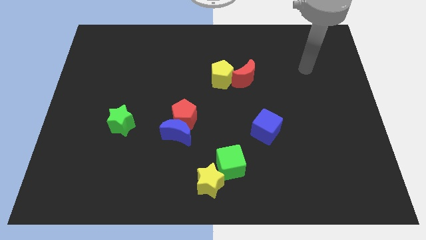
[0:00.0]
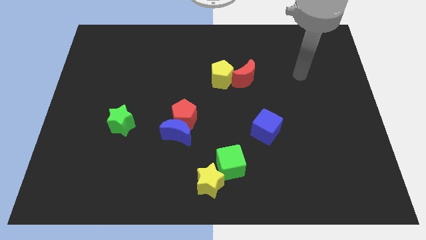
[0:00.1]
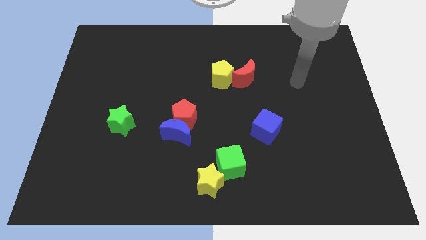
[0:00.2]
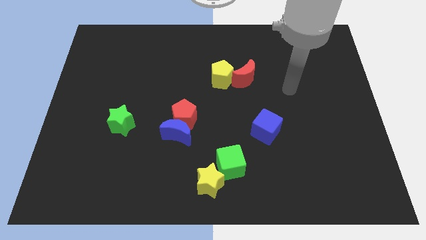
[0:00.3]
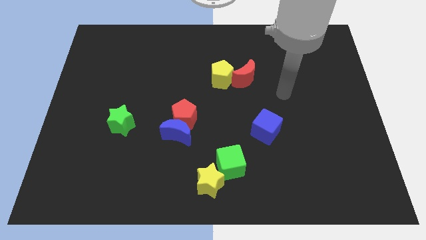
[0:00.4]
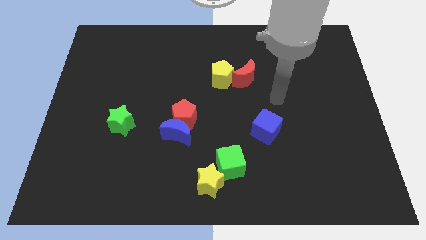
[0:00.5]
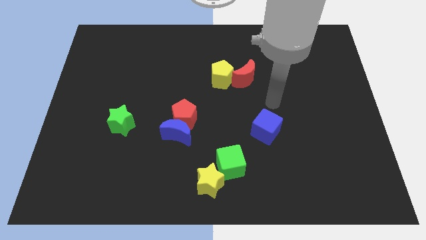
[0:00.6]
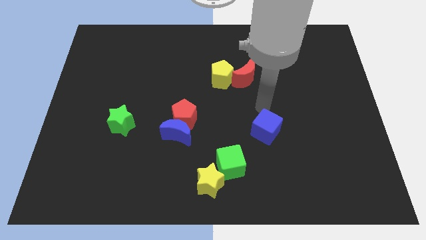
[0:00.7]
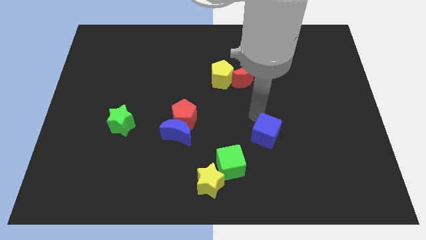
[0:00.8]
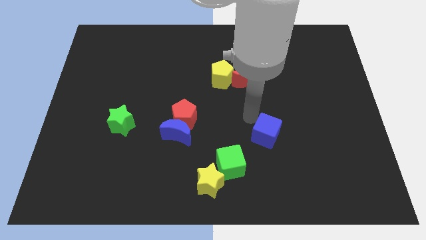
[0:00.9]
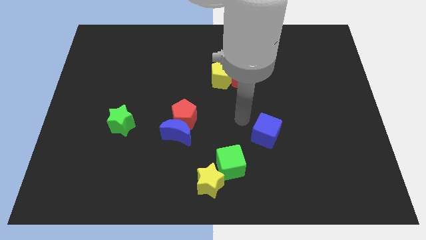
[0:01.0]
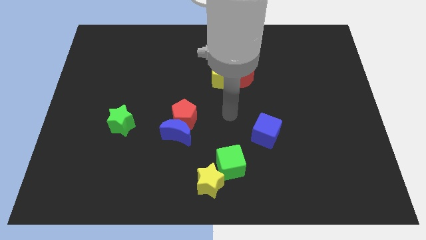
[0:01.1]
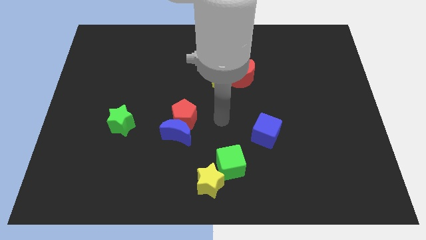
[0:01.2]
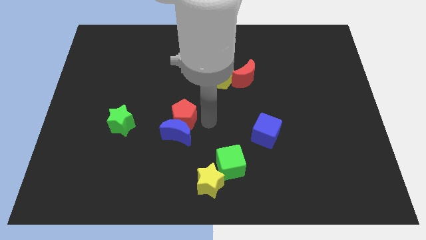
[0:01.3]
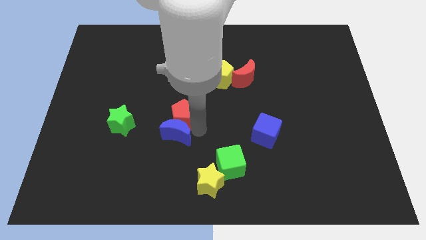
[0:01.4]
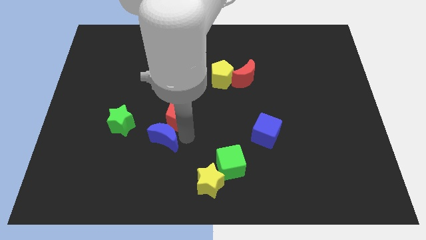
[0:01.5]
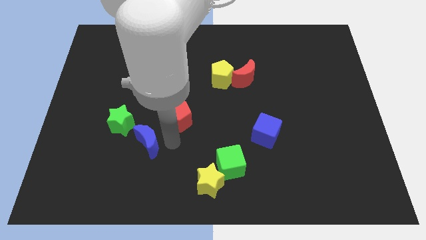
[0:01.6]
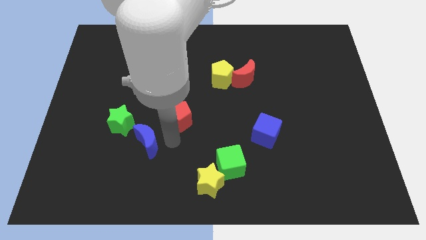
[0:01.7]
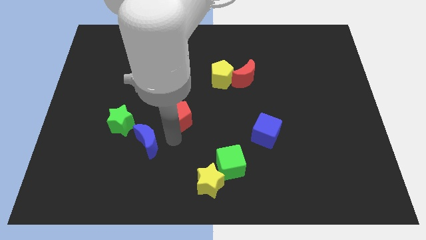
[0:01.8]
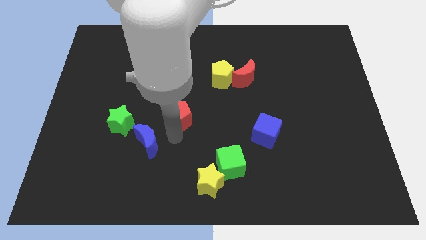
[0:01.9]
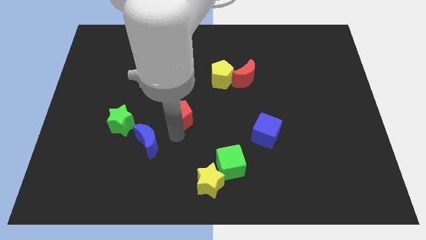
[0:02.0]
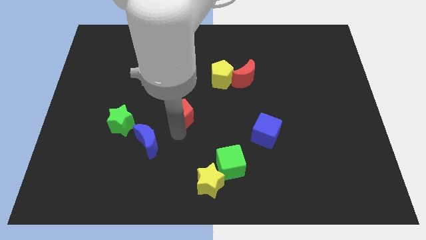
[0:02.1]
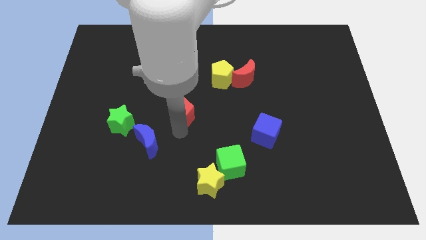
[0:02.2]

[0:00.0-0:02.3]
pull the red pentagon apart from the blue moon

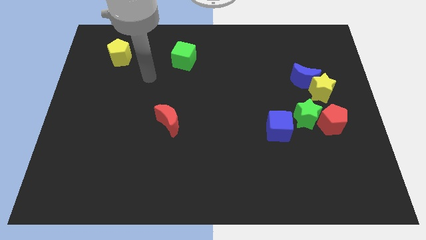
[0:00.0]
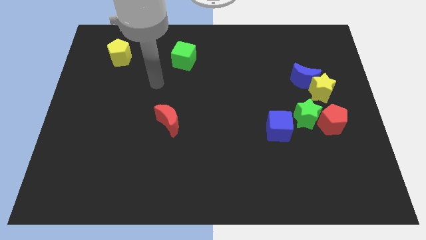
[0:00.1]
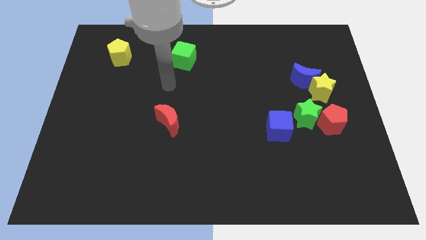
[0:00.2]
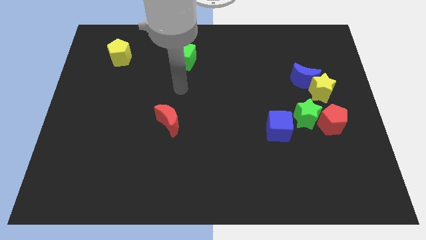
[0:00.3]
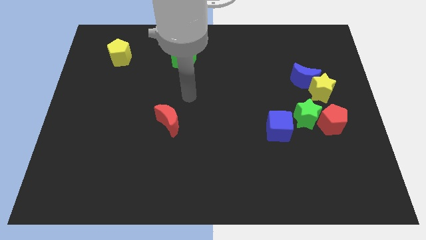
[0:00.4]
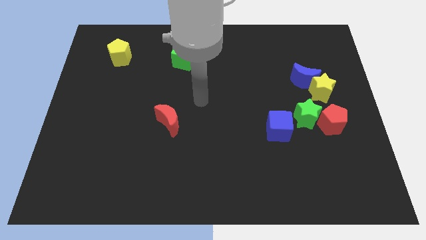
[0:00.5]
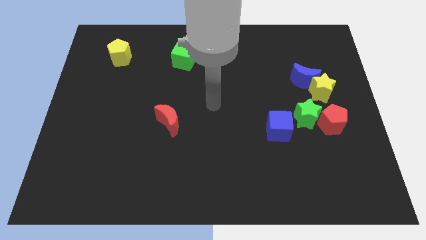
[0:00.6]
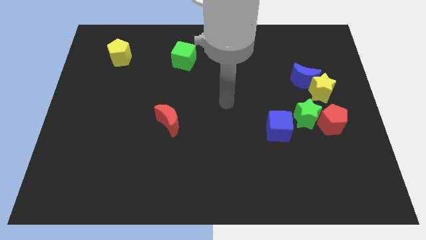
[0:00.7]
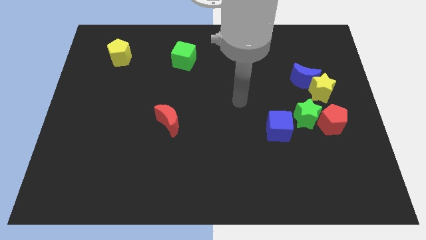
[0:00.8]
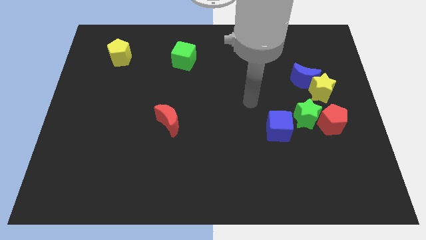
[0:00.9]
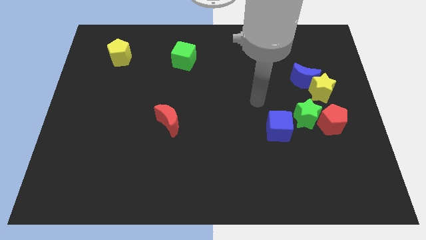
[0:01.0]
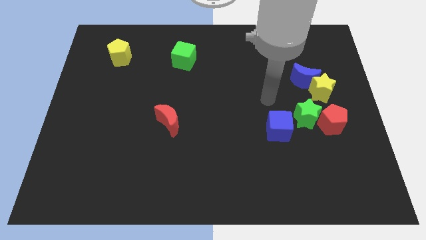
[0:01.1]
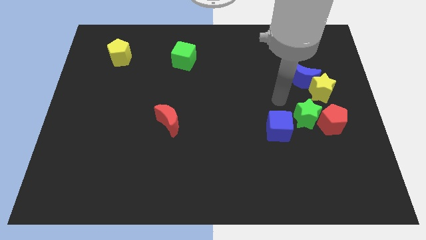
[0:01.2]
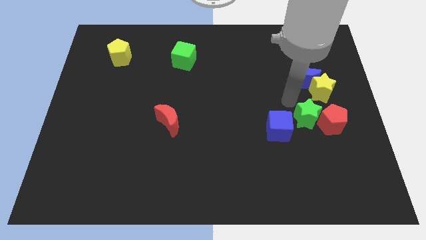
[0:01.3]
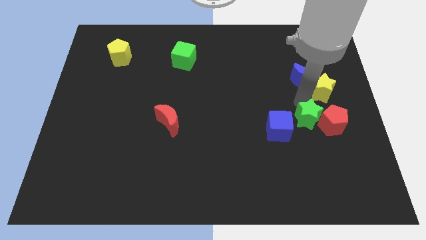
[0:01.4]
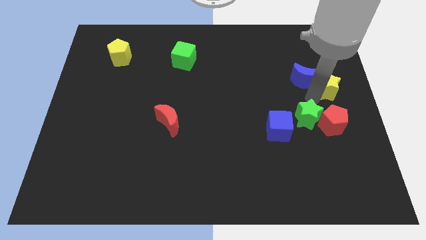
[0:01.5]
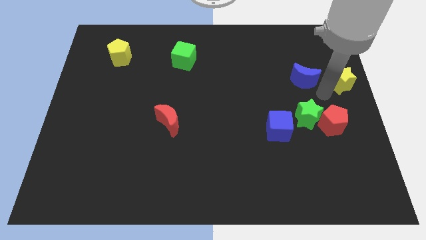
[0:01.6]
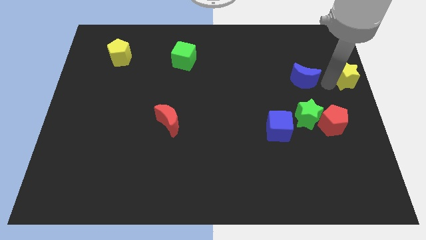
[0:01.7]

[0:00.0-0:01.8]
pull the blue moon apart from the yellow star

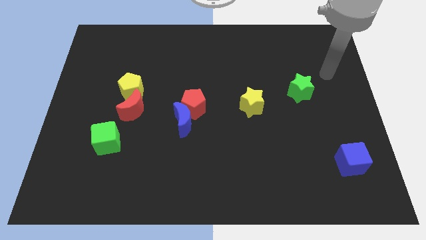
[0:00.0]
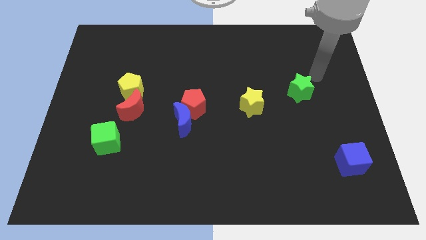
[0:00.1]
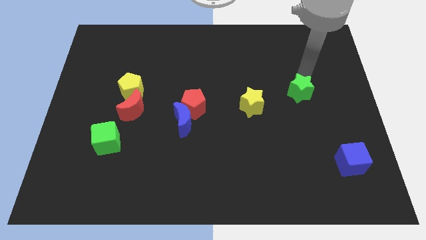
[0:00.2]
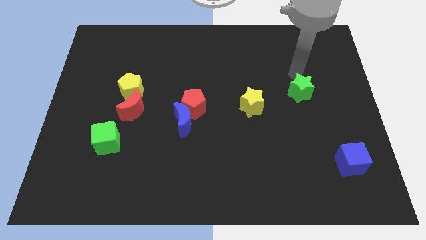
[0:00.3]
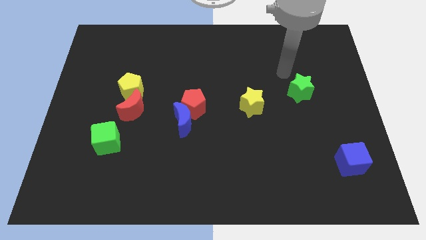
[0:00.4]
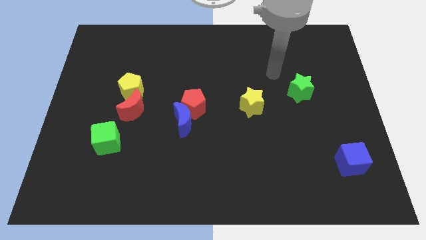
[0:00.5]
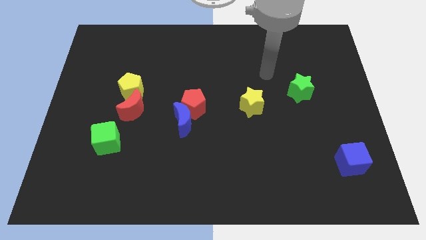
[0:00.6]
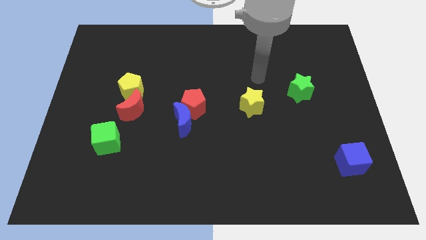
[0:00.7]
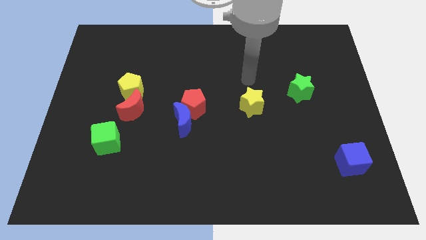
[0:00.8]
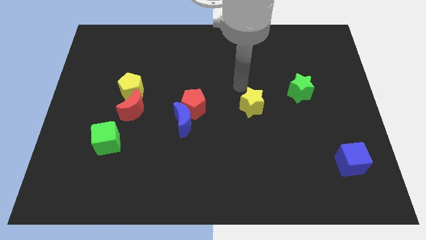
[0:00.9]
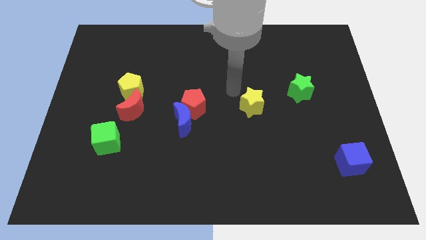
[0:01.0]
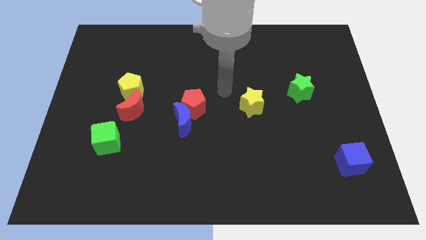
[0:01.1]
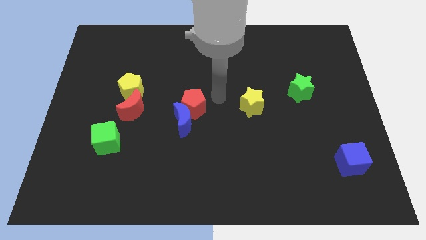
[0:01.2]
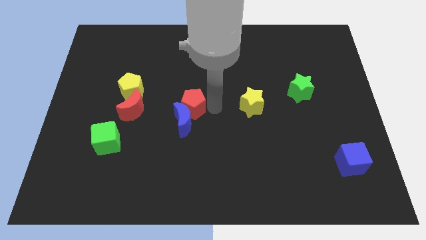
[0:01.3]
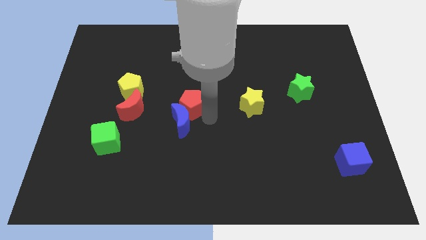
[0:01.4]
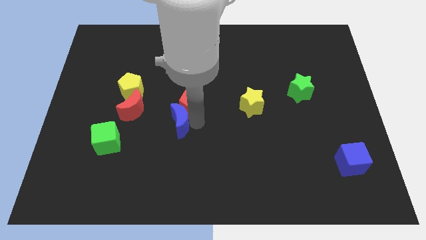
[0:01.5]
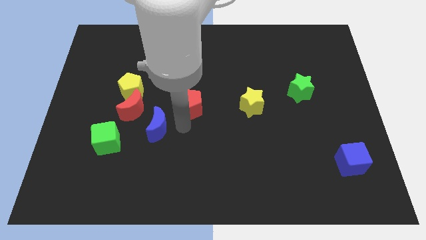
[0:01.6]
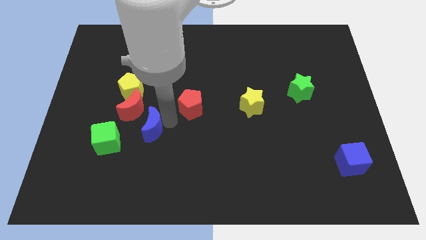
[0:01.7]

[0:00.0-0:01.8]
move the red pentagon away from the blue moon

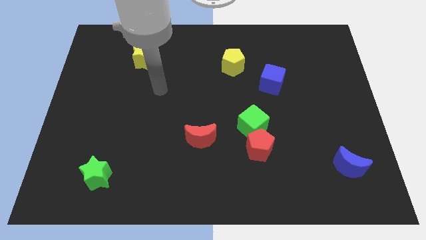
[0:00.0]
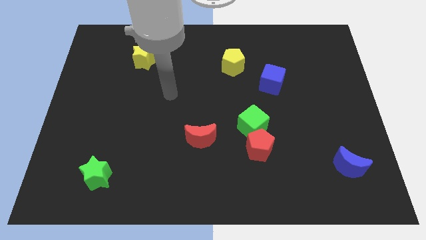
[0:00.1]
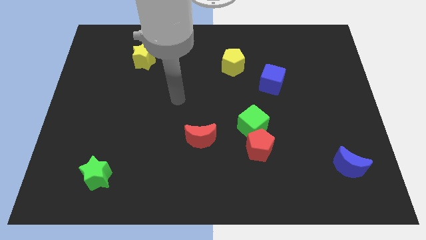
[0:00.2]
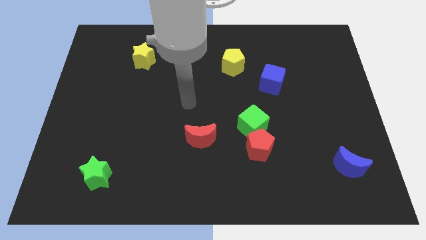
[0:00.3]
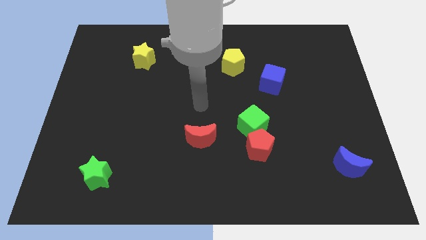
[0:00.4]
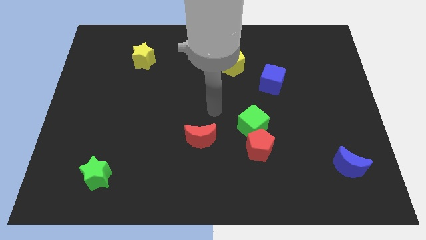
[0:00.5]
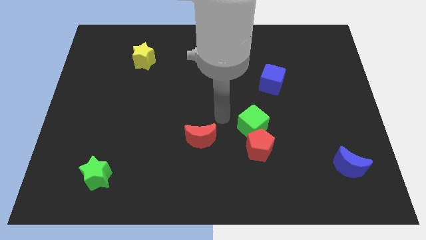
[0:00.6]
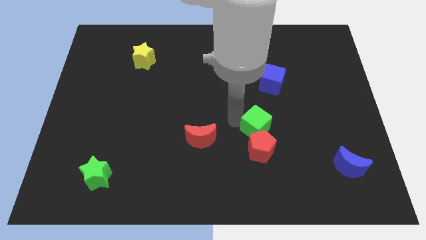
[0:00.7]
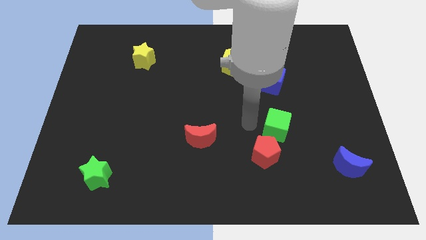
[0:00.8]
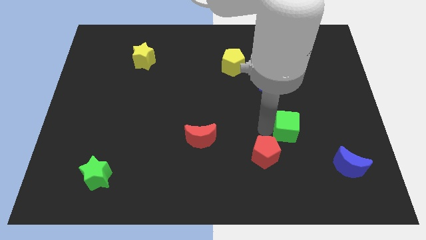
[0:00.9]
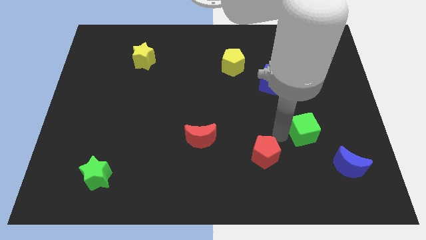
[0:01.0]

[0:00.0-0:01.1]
pull the red pentagon apart from the green cube

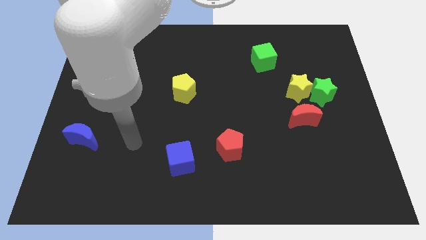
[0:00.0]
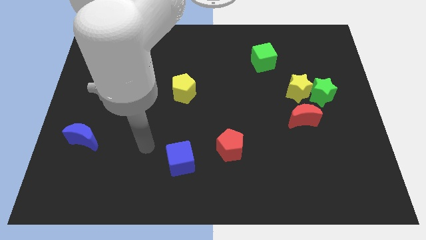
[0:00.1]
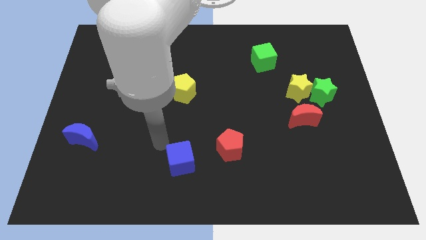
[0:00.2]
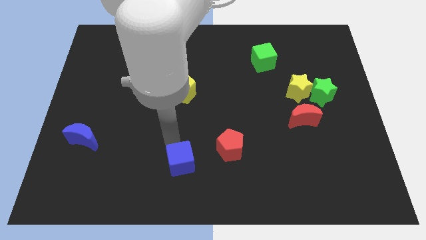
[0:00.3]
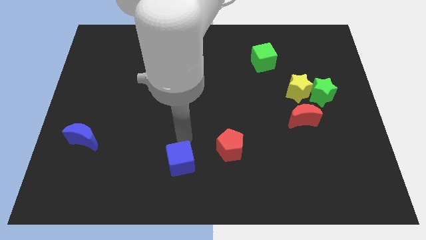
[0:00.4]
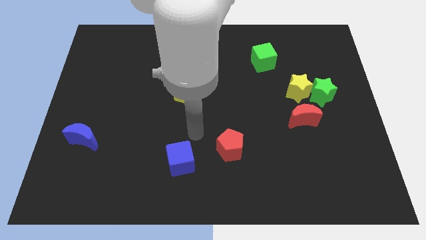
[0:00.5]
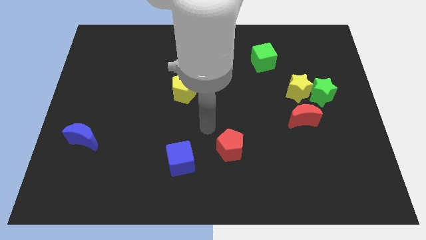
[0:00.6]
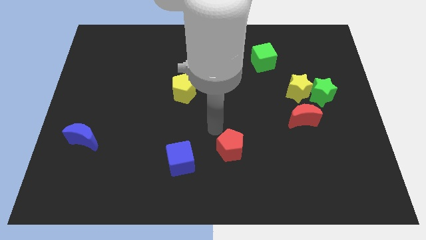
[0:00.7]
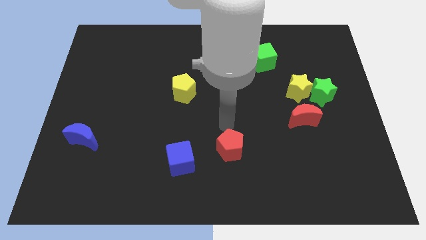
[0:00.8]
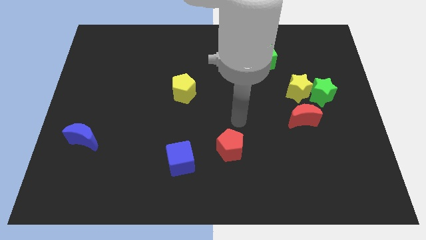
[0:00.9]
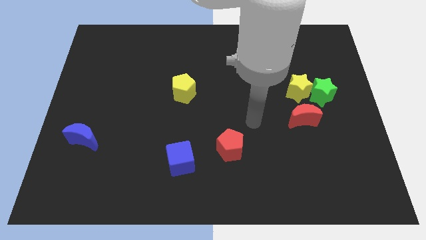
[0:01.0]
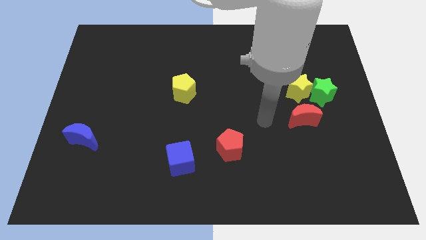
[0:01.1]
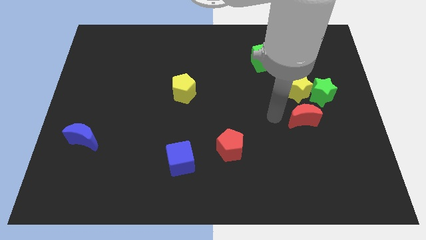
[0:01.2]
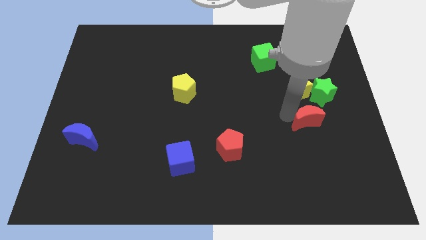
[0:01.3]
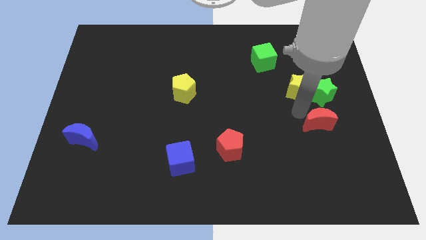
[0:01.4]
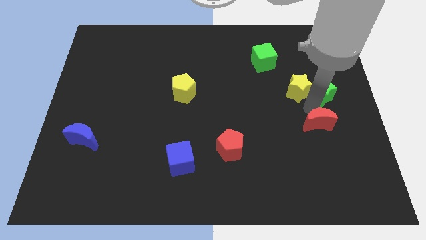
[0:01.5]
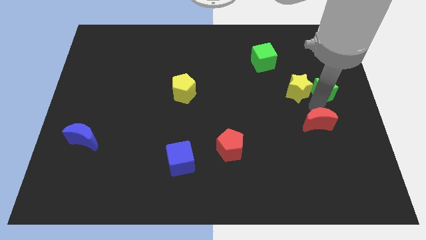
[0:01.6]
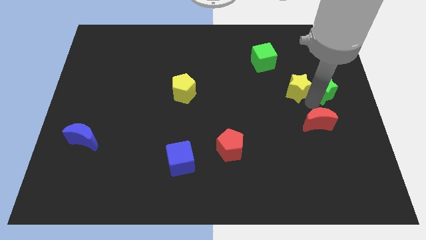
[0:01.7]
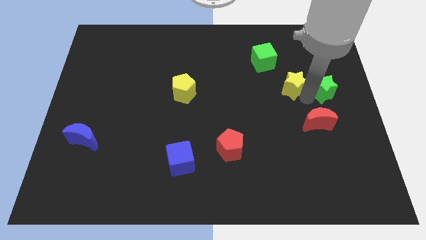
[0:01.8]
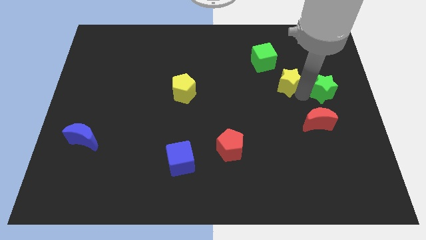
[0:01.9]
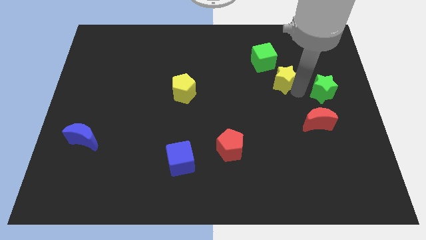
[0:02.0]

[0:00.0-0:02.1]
pull the yellow star apart from the green star and red moon

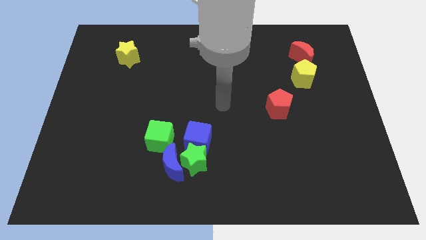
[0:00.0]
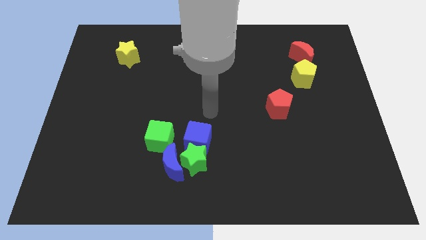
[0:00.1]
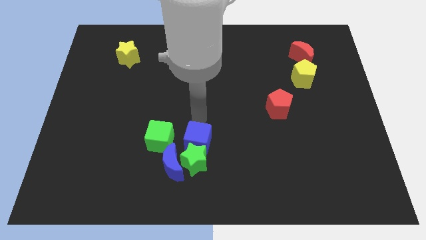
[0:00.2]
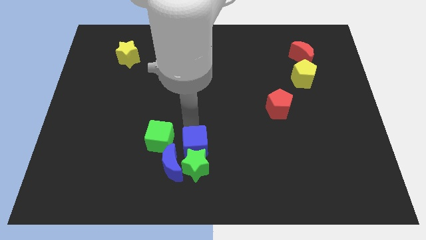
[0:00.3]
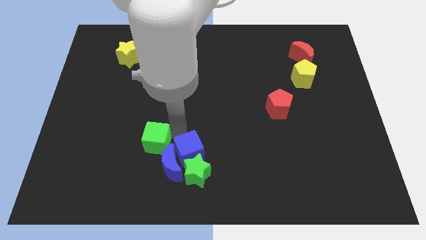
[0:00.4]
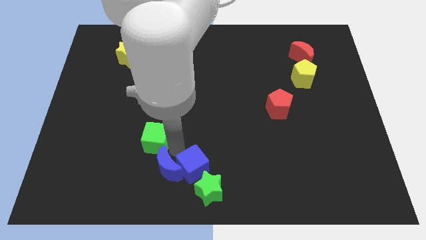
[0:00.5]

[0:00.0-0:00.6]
move the green star away from the group of blocks
